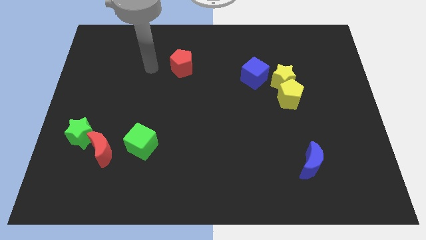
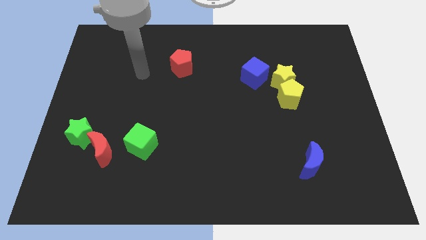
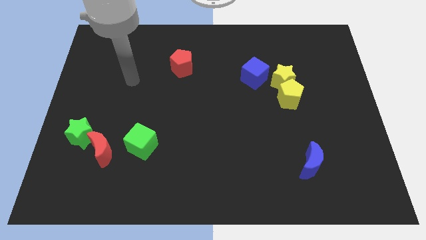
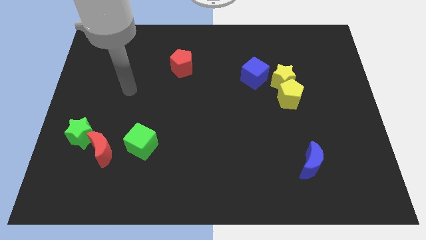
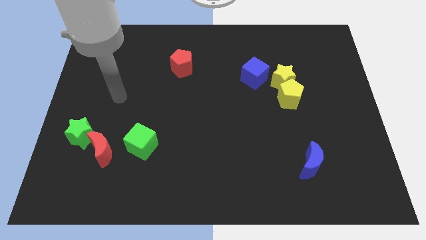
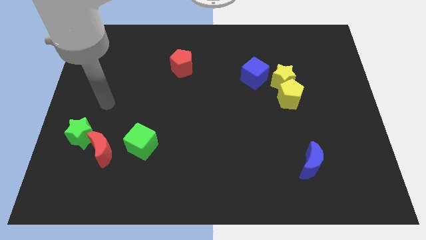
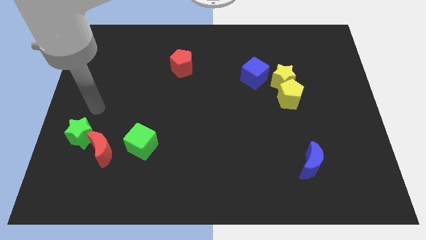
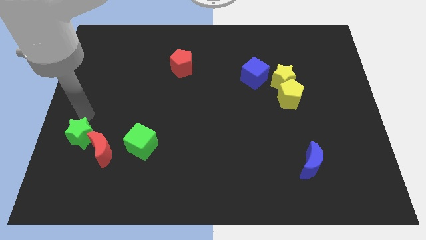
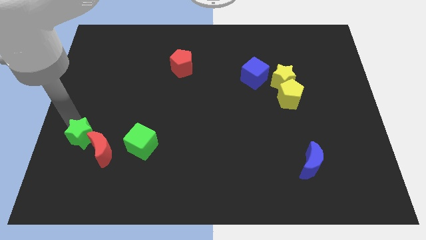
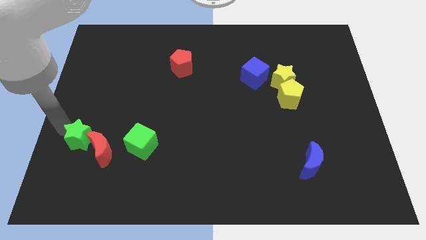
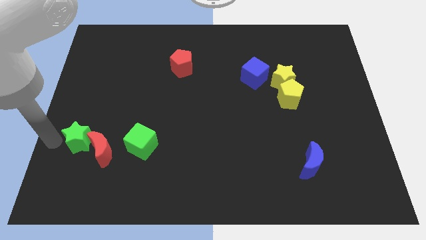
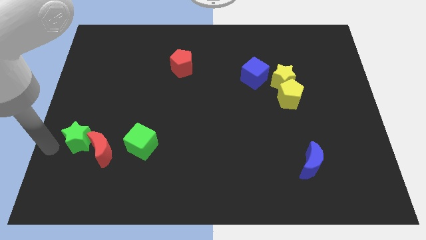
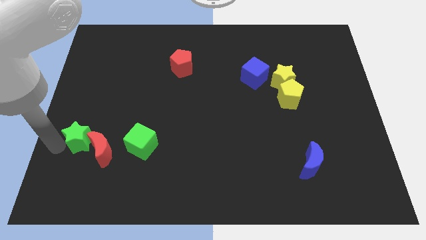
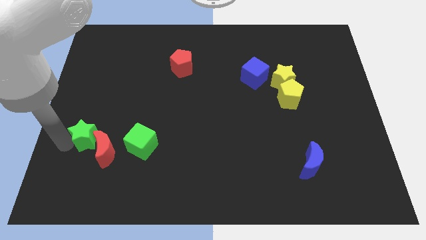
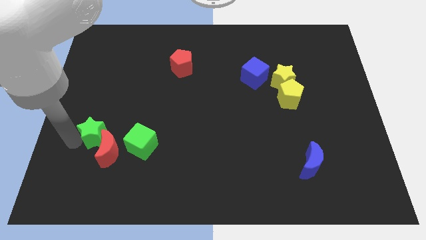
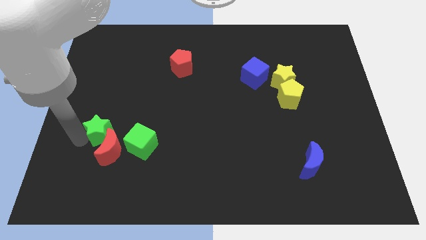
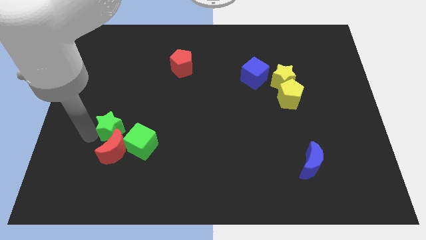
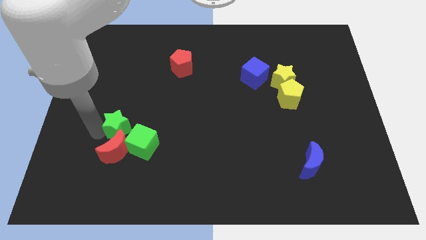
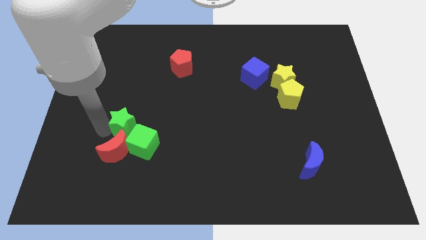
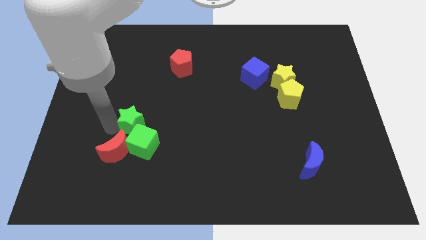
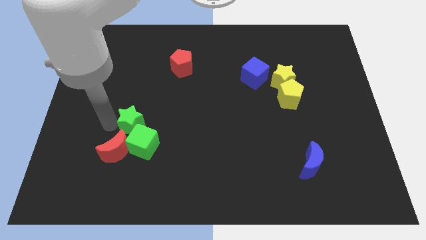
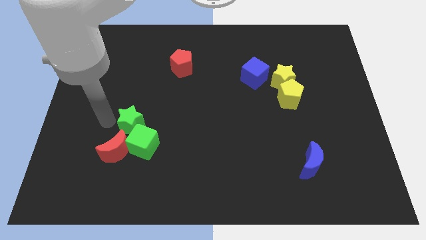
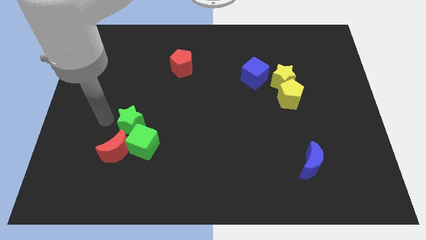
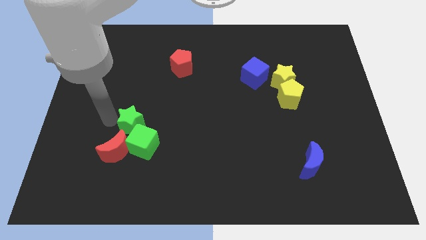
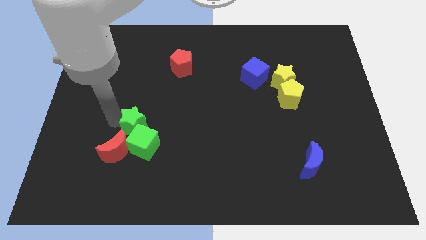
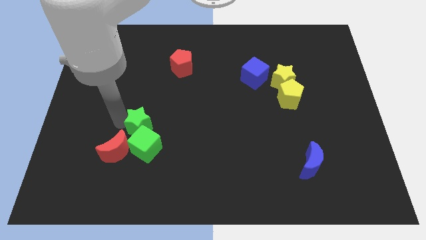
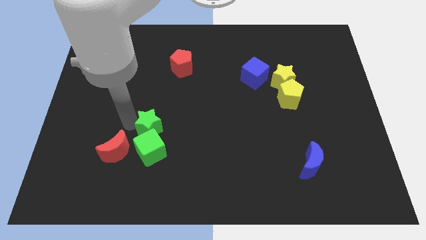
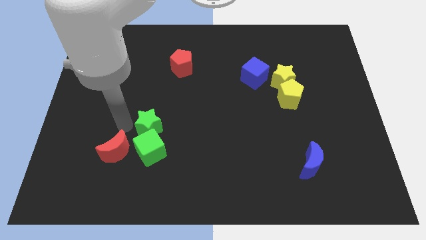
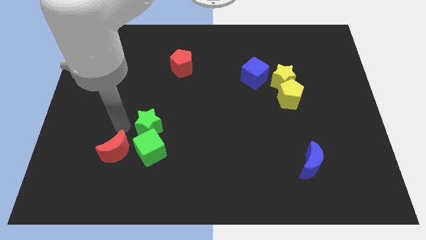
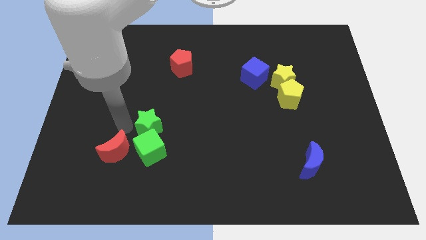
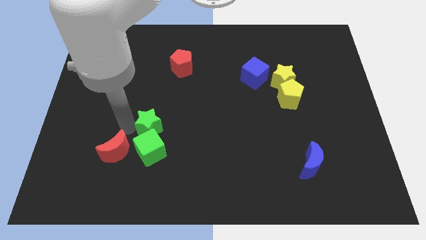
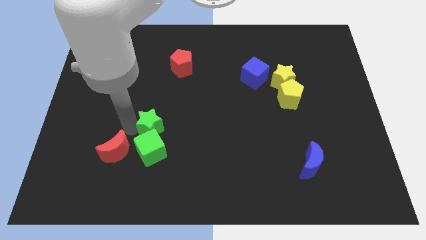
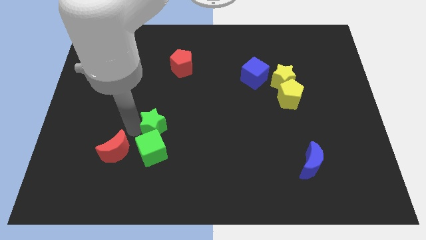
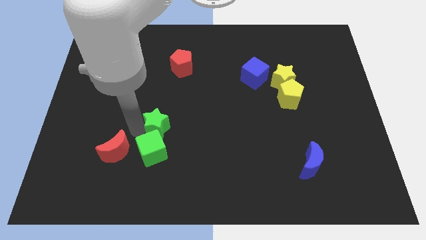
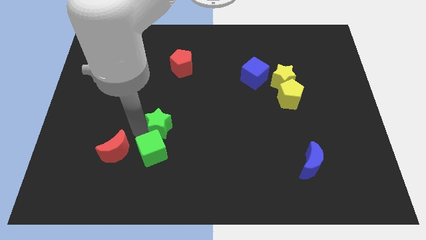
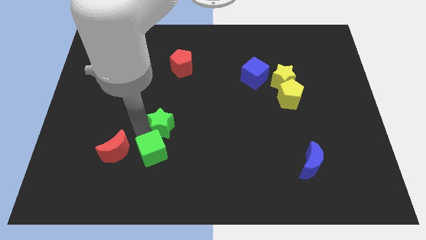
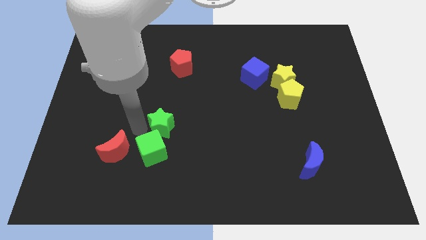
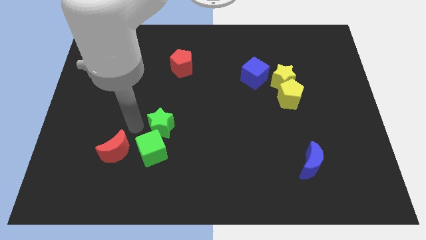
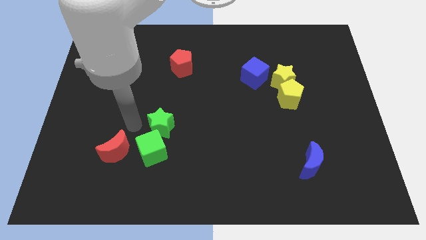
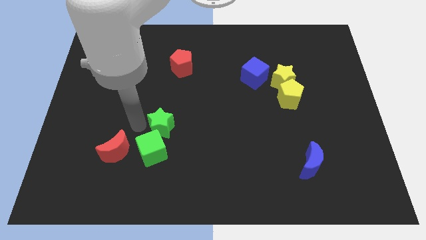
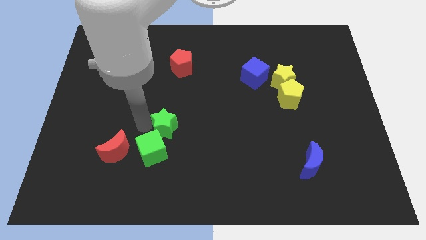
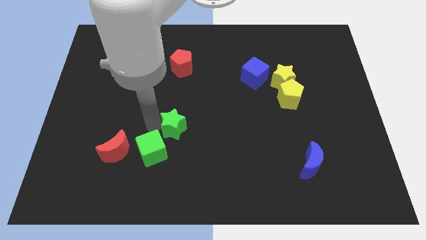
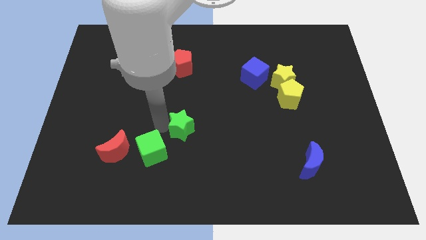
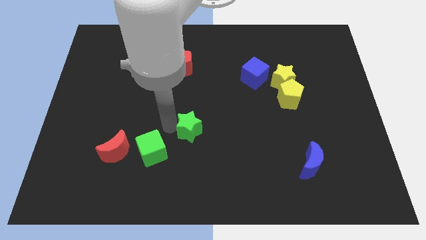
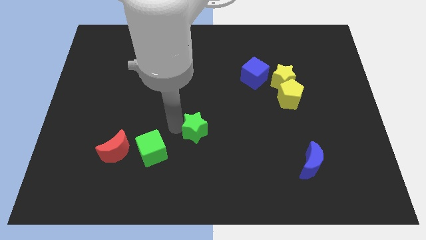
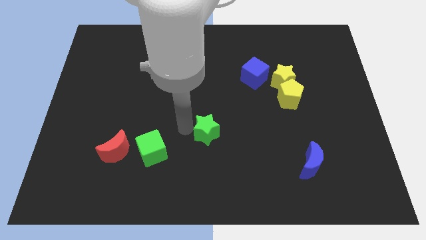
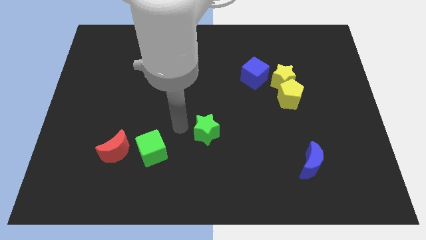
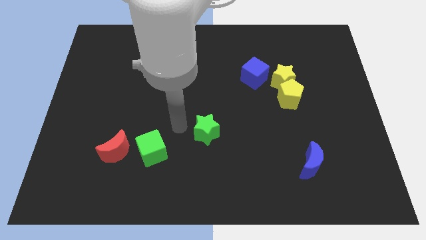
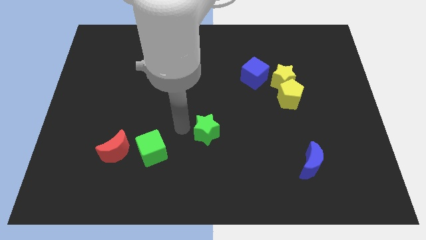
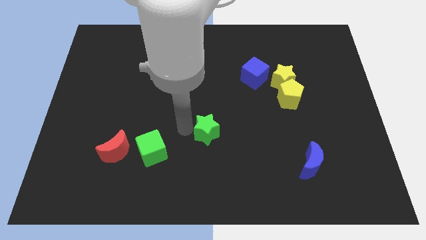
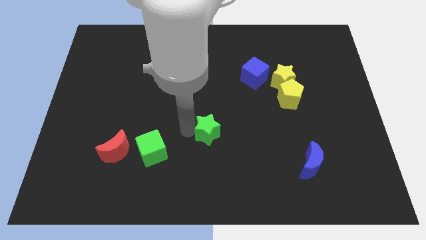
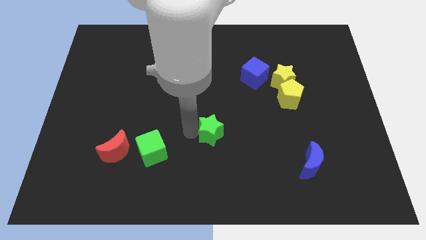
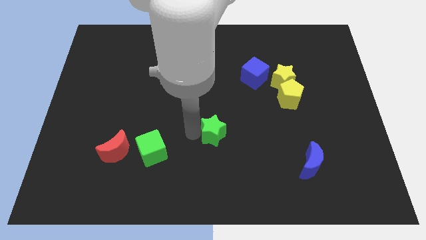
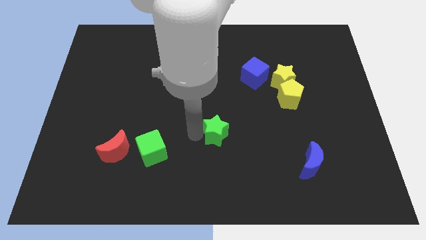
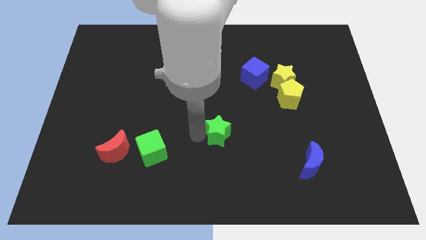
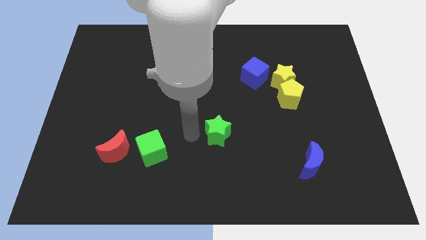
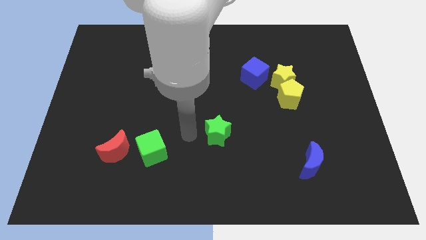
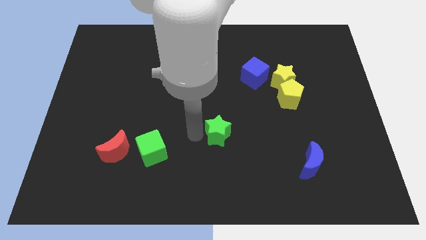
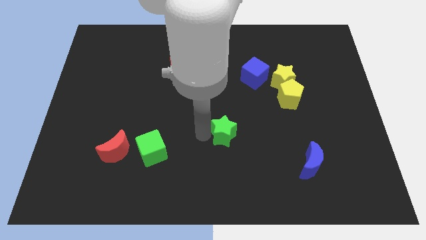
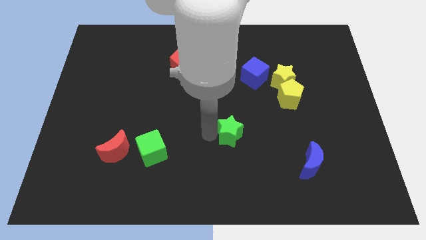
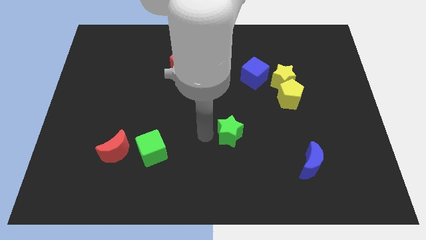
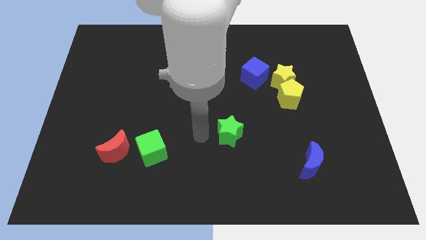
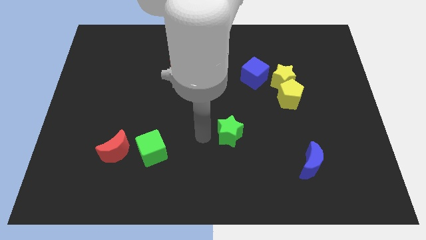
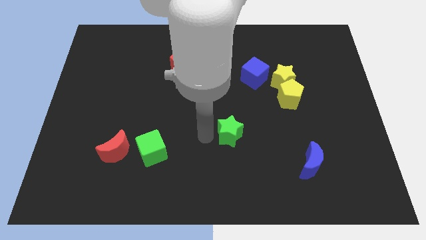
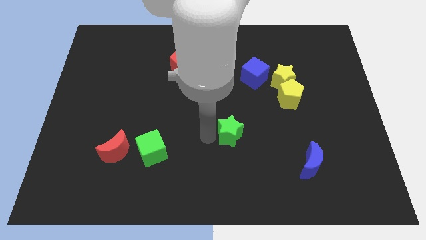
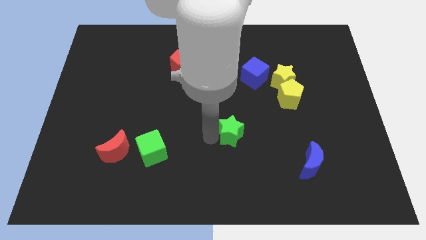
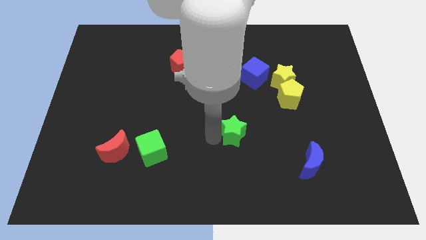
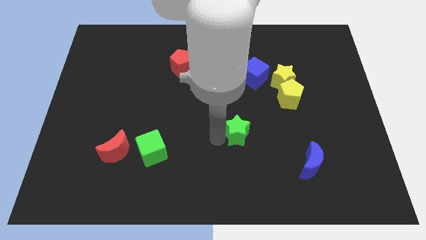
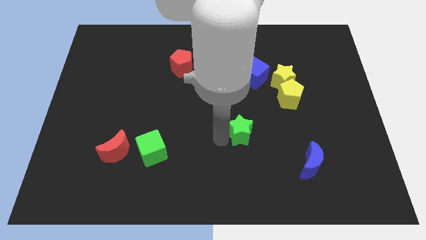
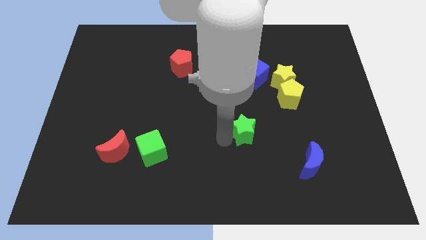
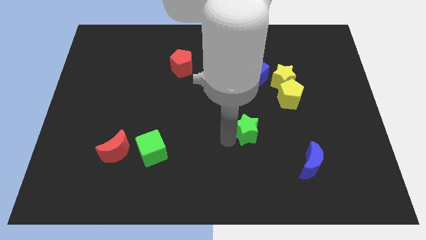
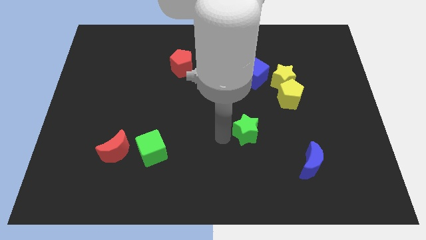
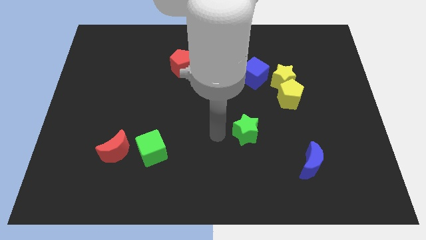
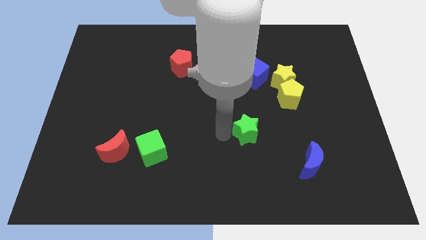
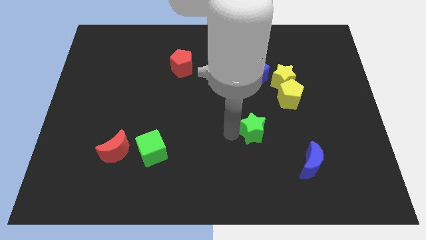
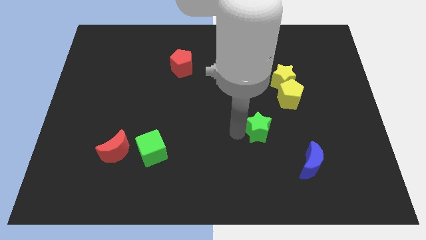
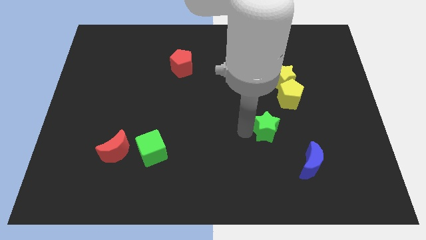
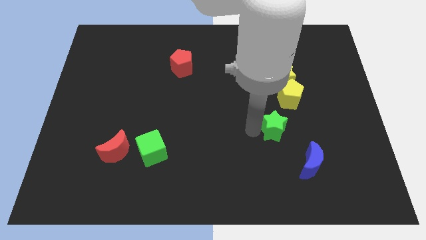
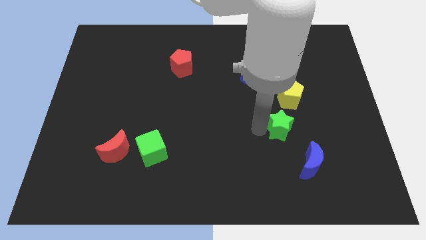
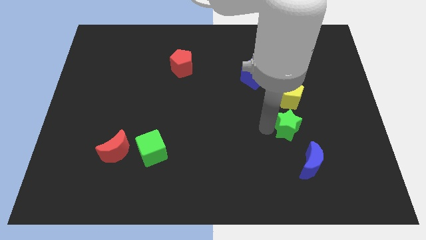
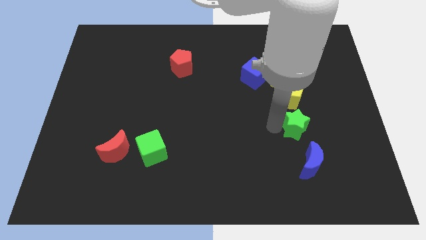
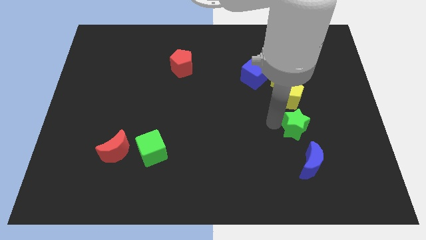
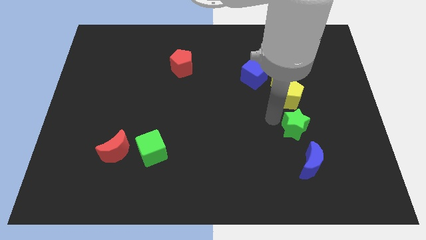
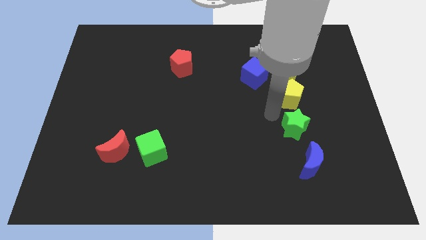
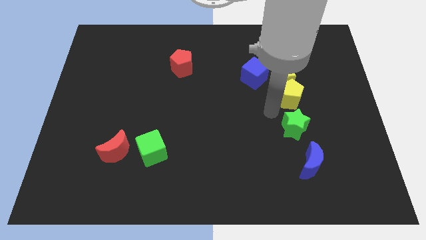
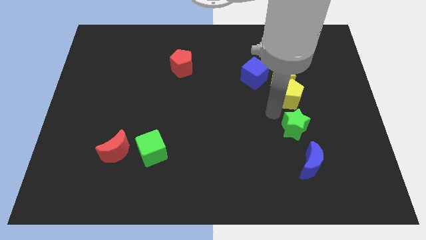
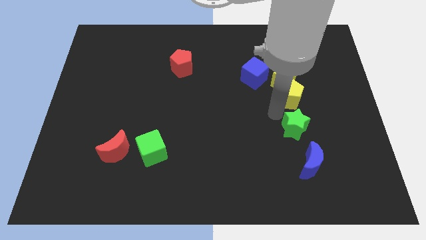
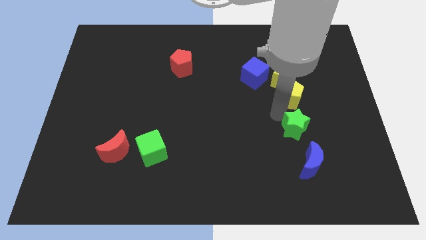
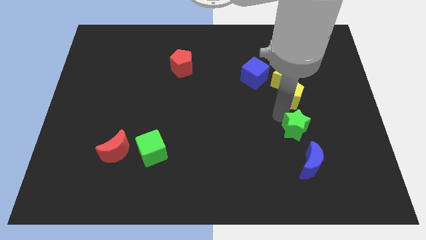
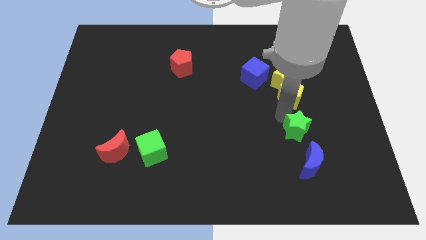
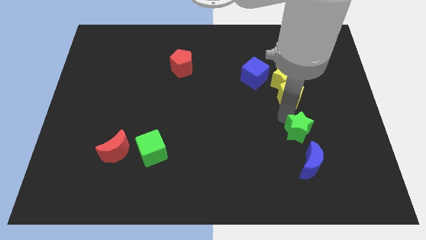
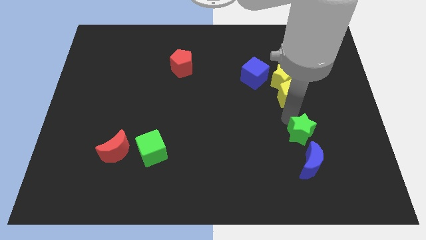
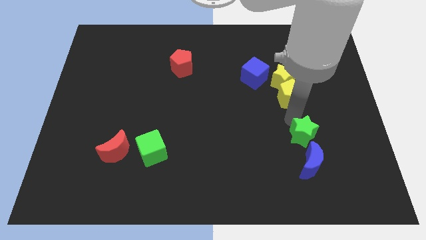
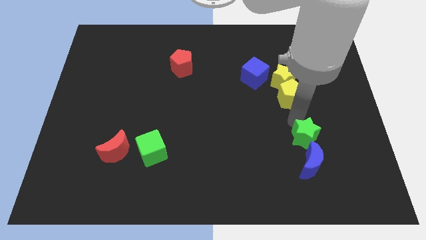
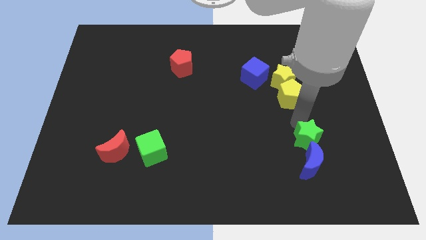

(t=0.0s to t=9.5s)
move the green star to the top right side of the blue moon
